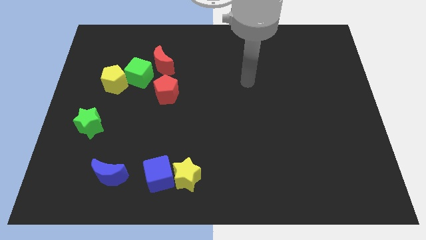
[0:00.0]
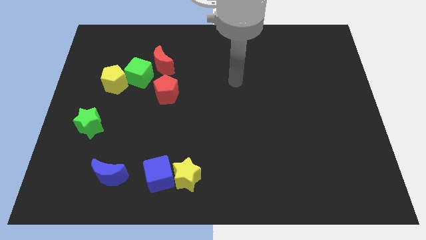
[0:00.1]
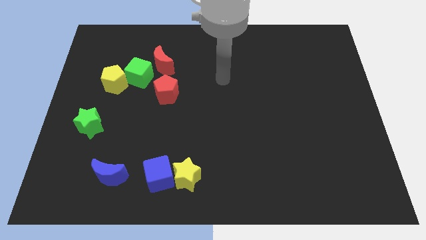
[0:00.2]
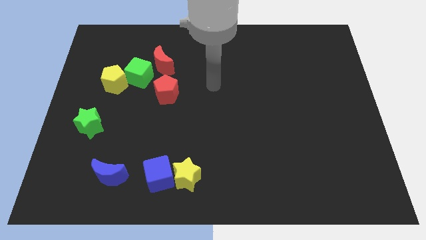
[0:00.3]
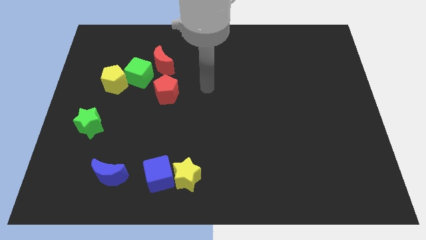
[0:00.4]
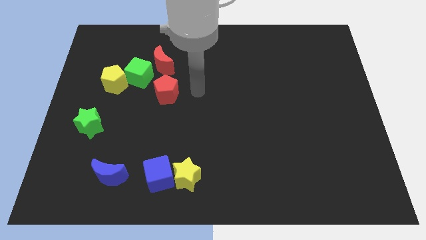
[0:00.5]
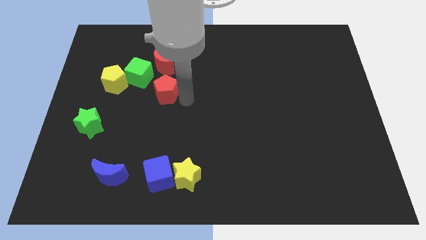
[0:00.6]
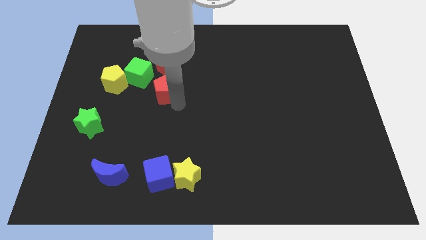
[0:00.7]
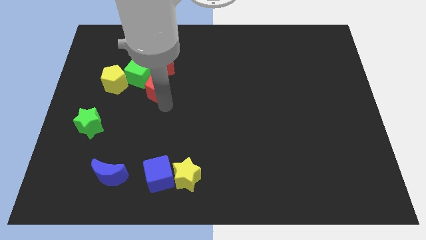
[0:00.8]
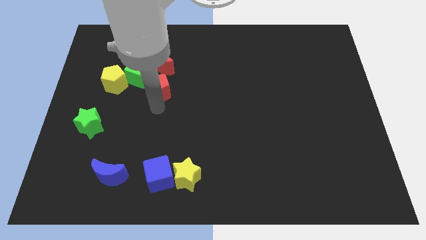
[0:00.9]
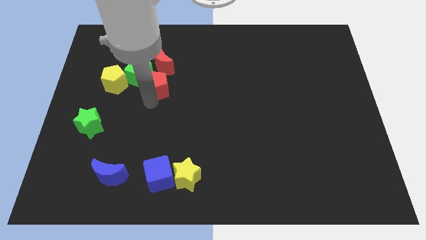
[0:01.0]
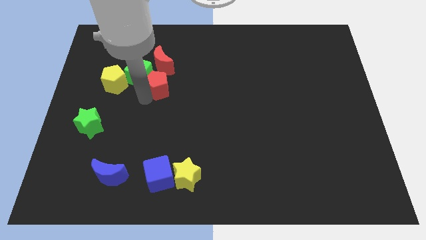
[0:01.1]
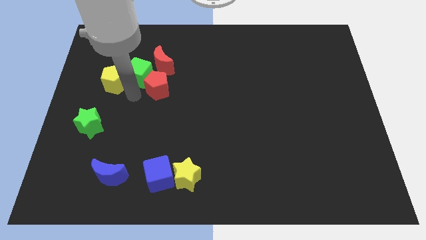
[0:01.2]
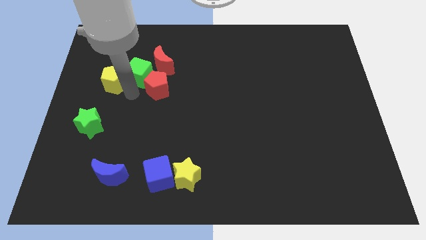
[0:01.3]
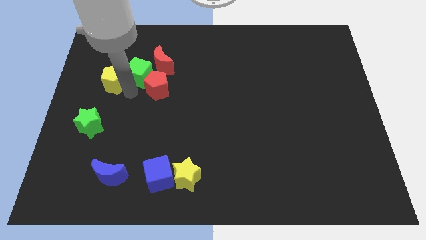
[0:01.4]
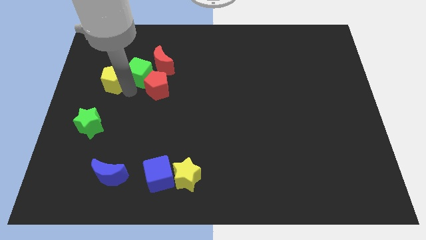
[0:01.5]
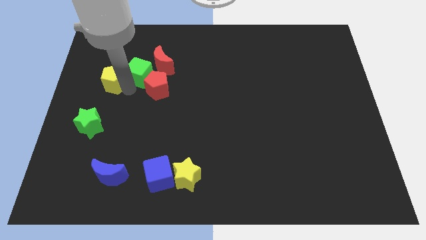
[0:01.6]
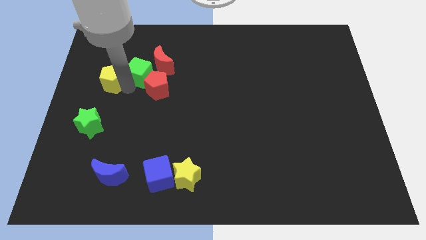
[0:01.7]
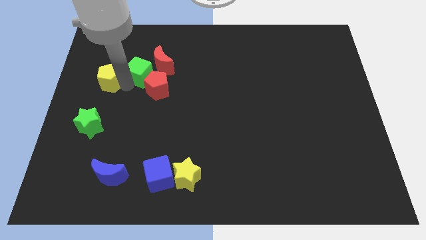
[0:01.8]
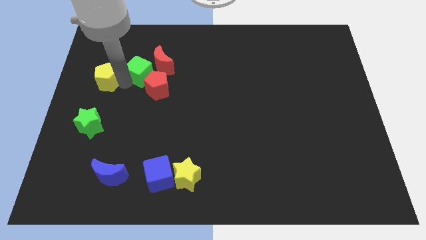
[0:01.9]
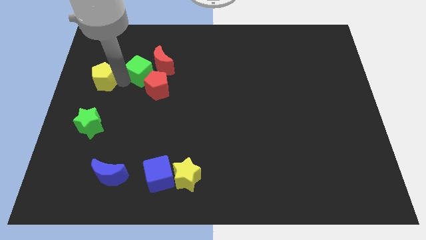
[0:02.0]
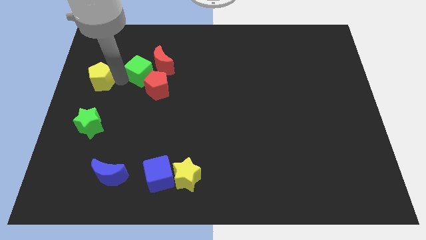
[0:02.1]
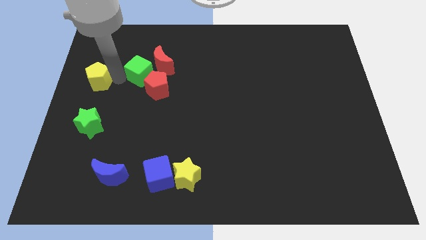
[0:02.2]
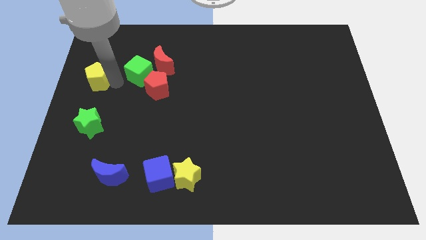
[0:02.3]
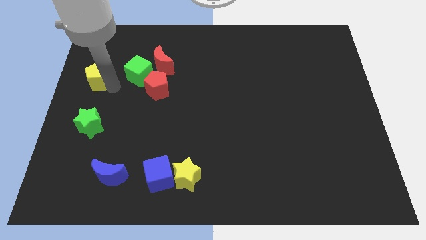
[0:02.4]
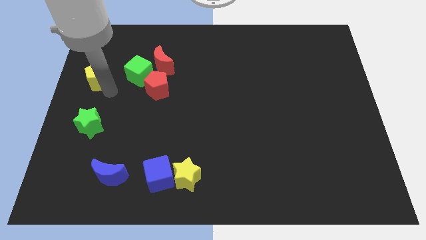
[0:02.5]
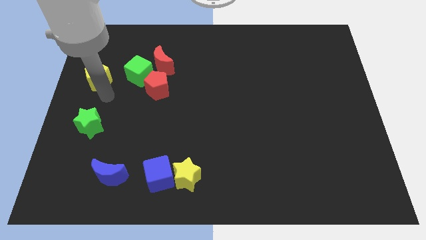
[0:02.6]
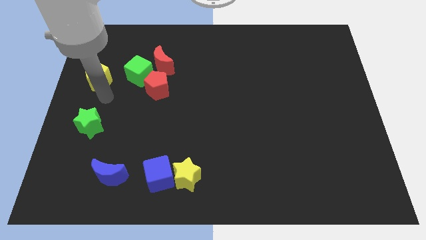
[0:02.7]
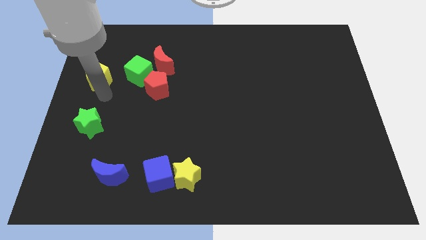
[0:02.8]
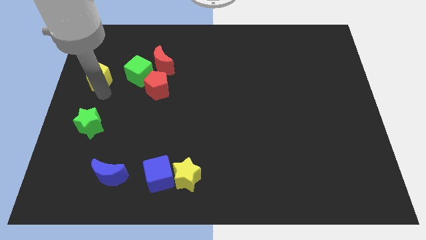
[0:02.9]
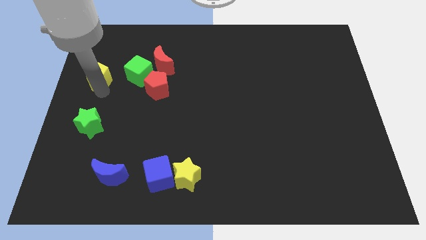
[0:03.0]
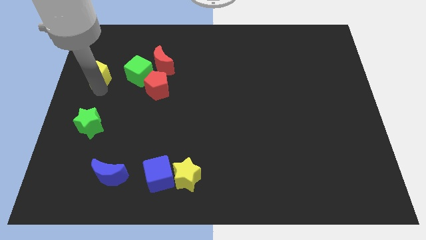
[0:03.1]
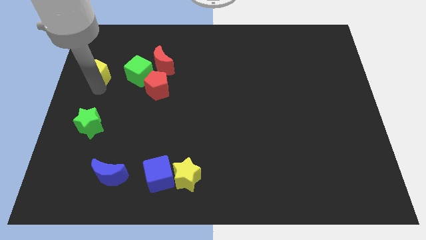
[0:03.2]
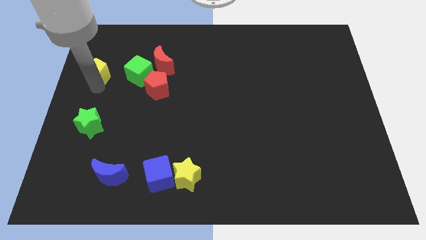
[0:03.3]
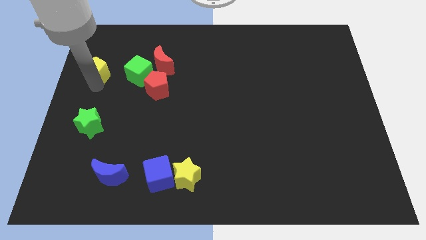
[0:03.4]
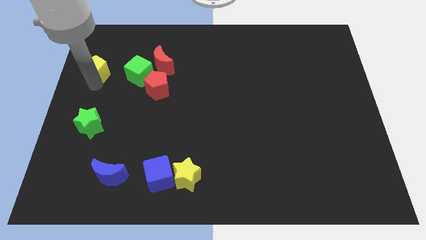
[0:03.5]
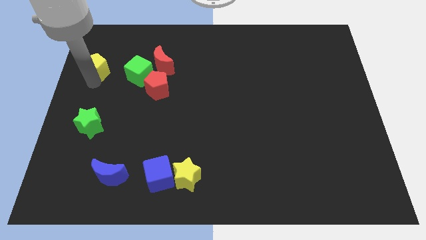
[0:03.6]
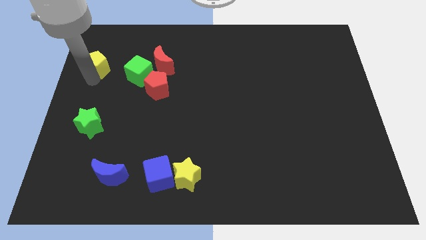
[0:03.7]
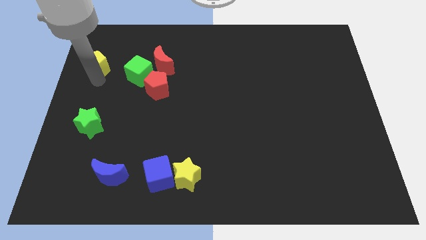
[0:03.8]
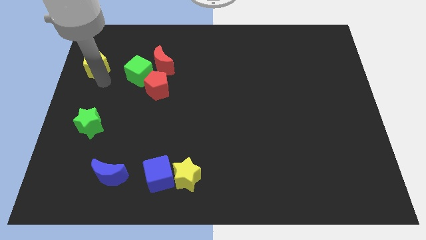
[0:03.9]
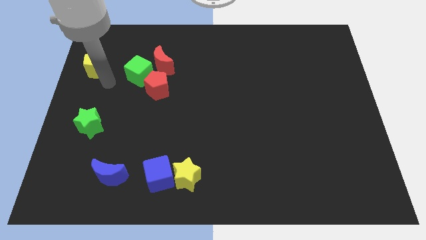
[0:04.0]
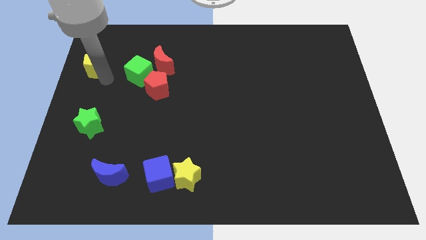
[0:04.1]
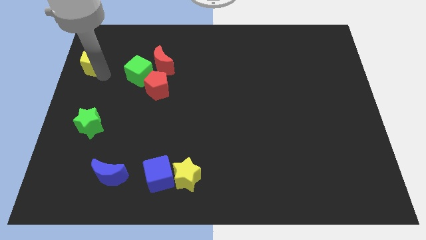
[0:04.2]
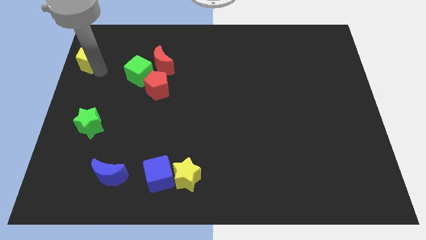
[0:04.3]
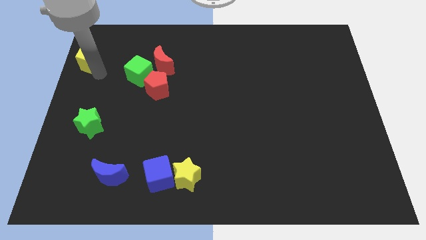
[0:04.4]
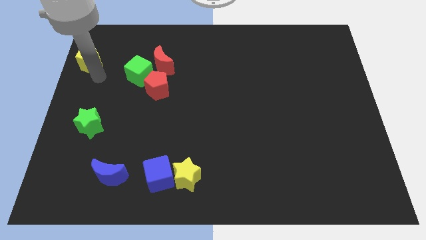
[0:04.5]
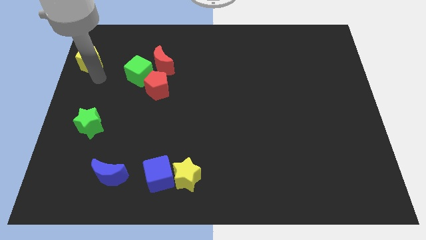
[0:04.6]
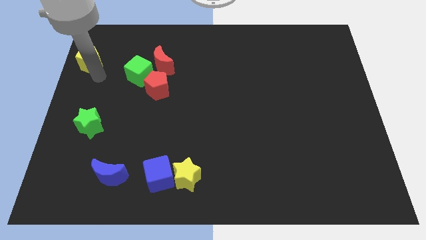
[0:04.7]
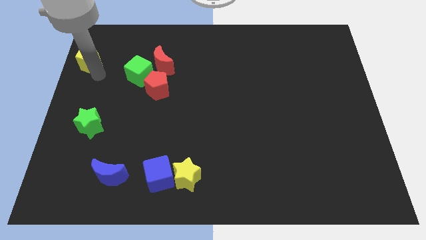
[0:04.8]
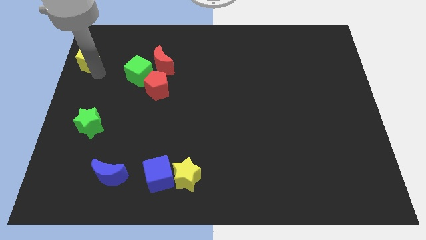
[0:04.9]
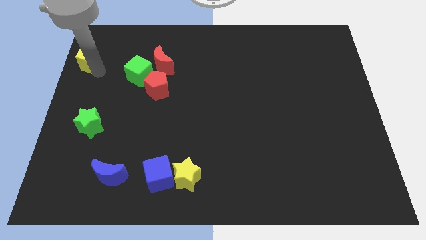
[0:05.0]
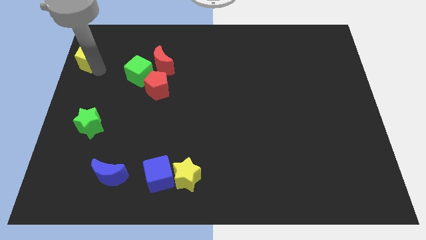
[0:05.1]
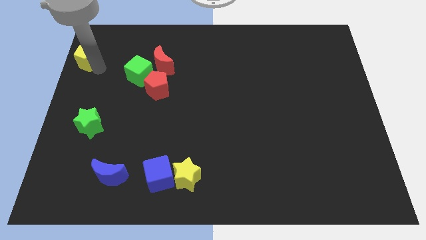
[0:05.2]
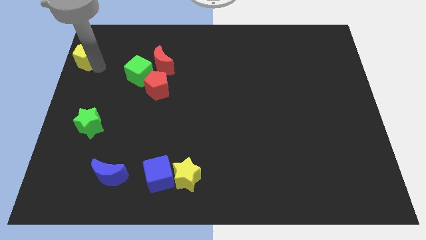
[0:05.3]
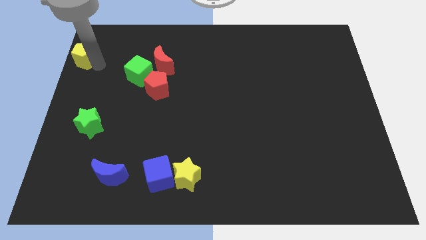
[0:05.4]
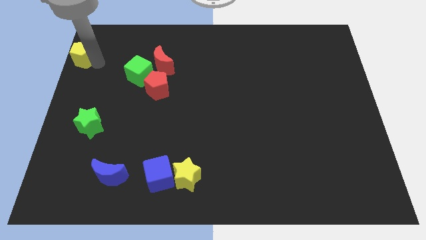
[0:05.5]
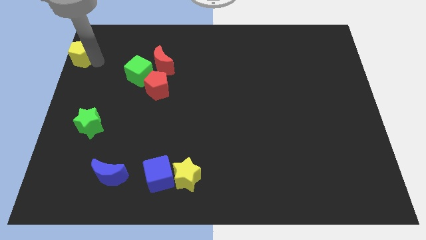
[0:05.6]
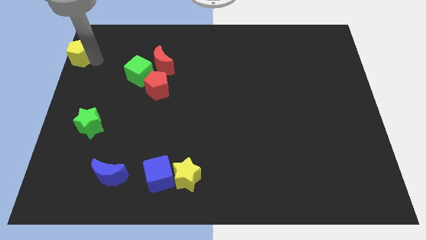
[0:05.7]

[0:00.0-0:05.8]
move the yellow pentagon to the top left of the board
